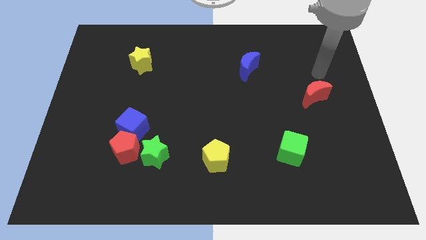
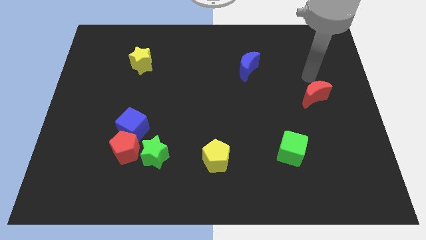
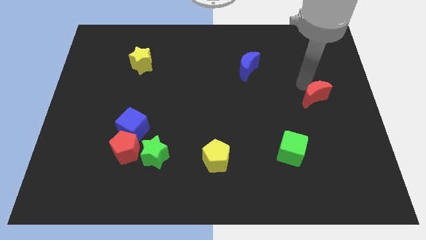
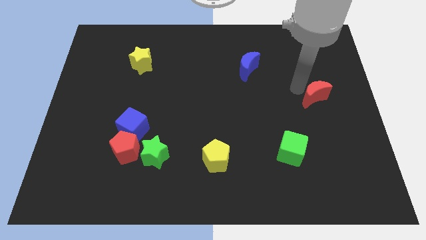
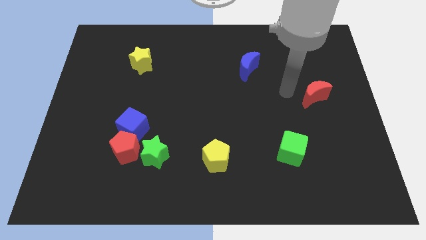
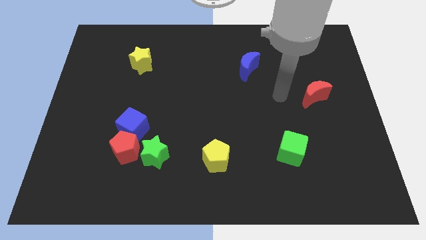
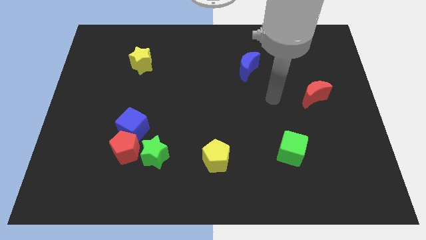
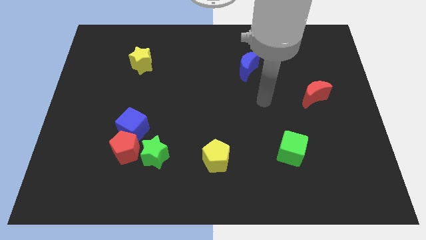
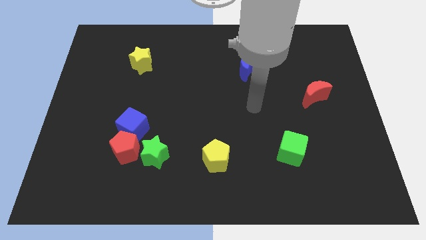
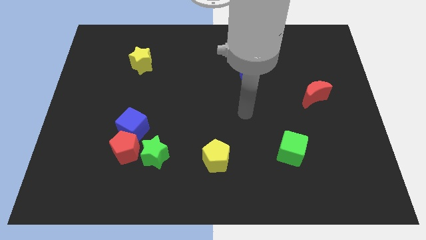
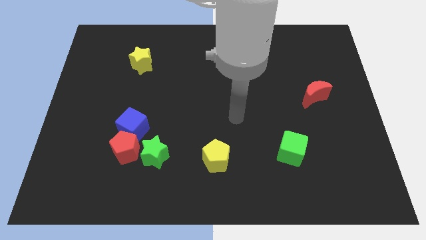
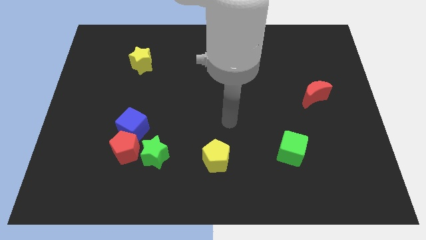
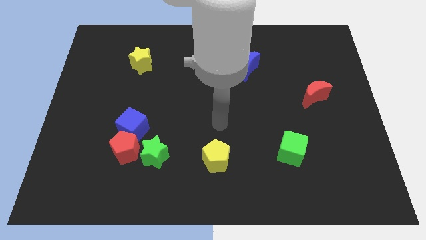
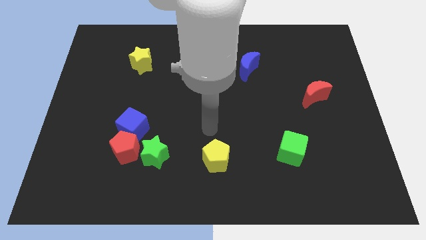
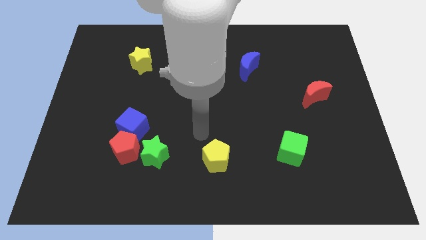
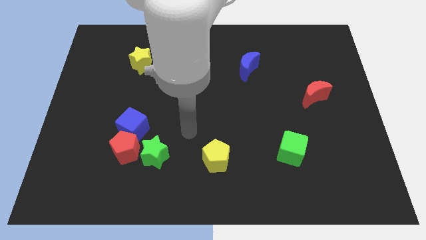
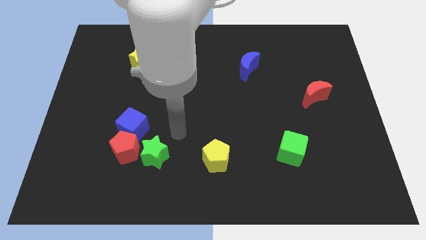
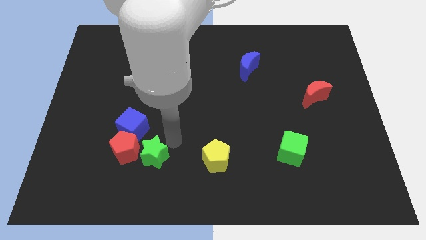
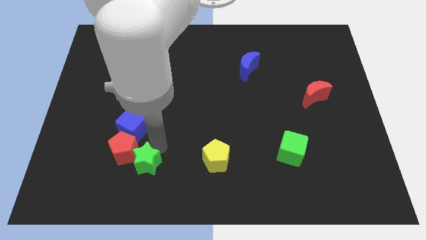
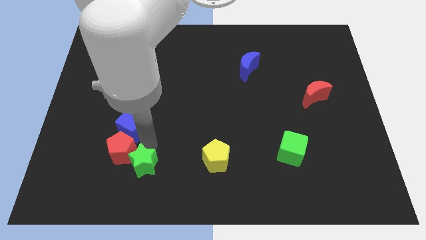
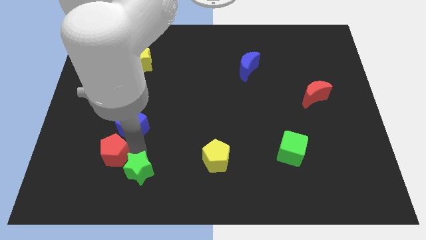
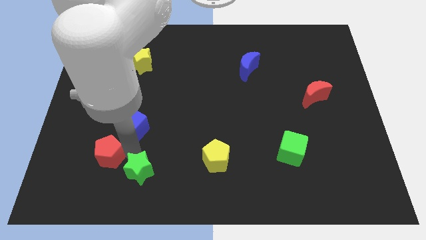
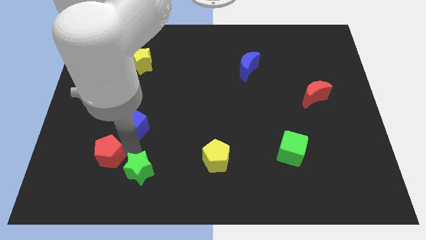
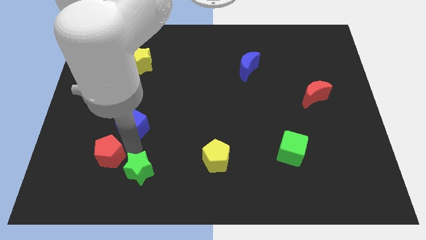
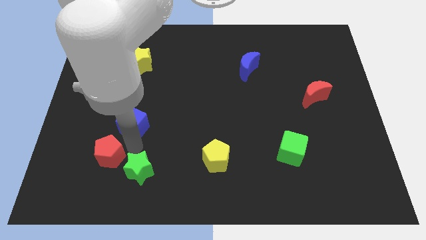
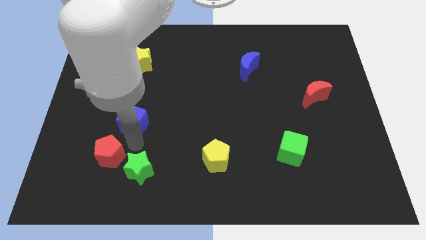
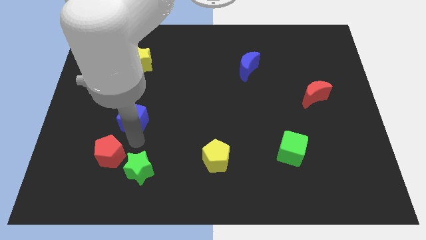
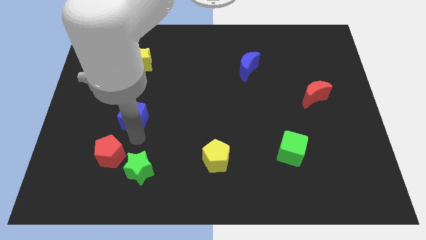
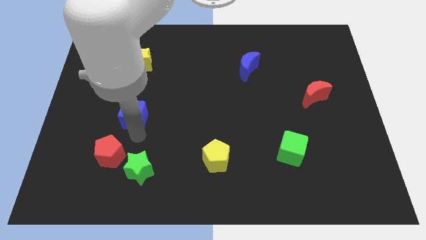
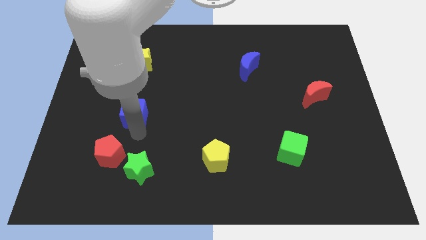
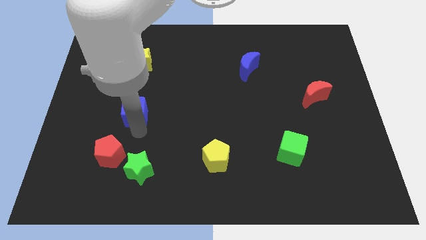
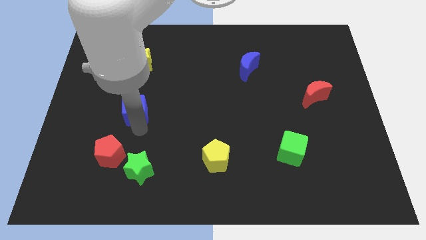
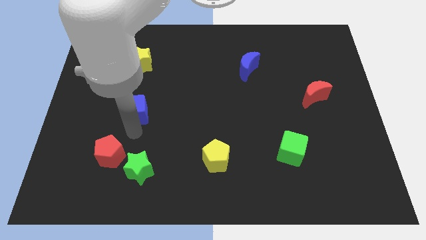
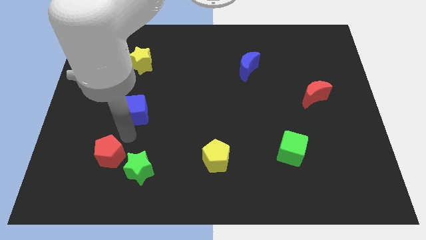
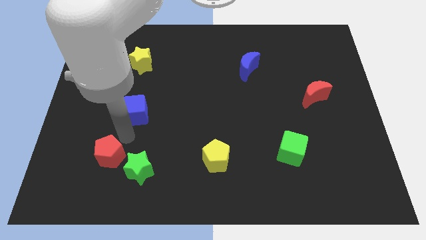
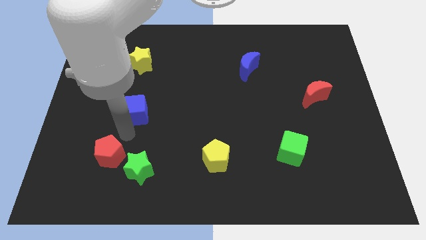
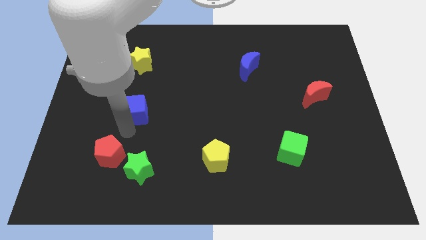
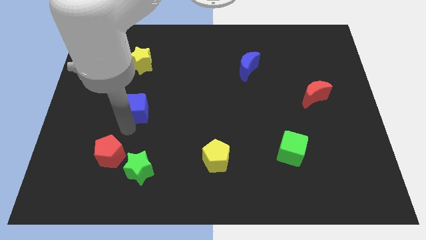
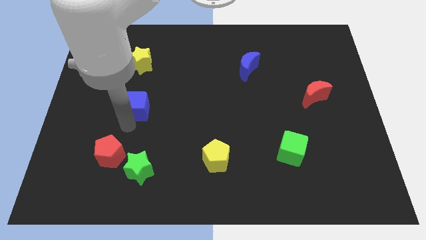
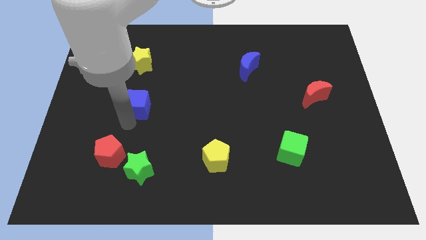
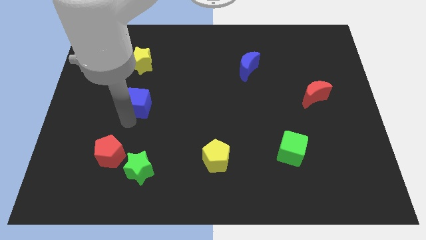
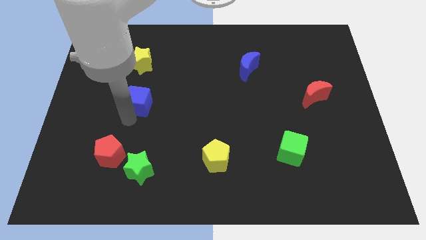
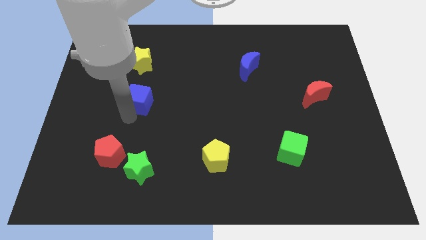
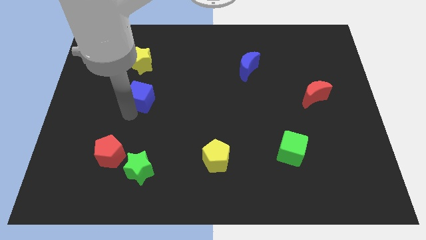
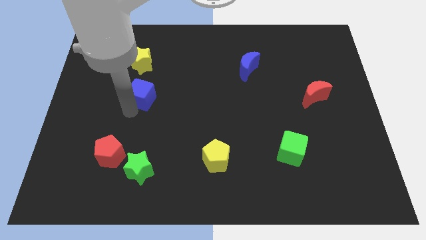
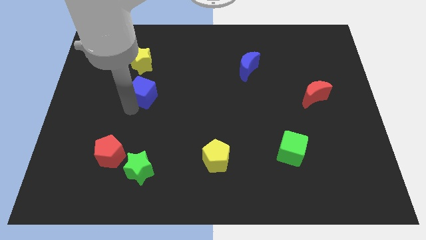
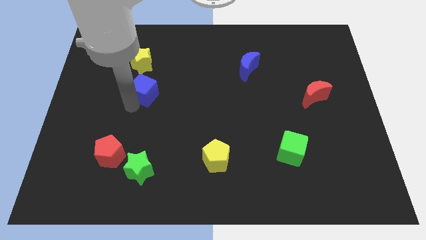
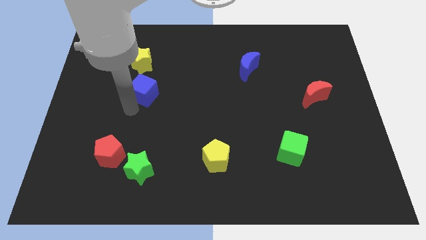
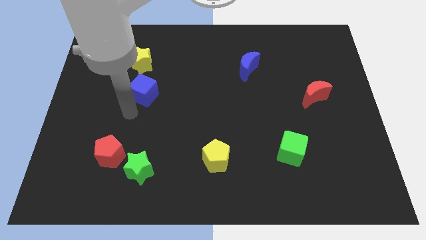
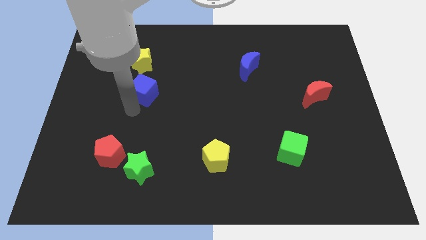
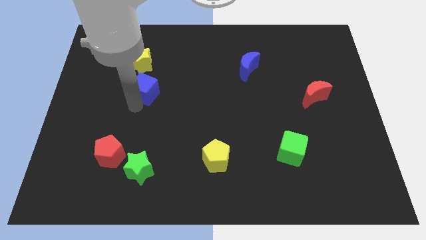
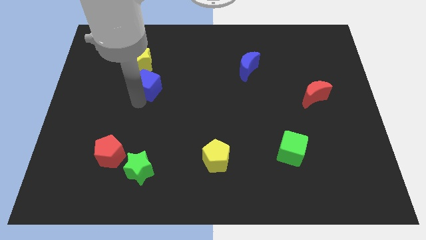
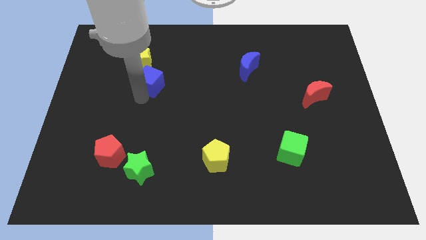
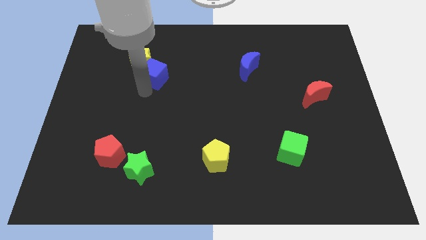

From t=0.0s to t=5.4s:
put the blue cube just right of the yellow star

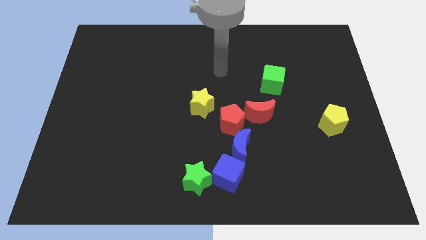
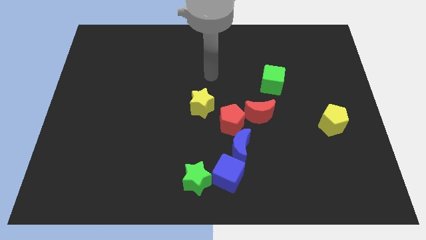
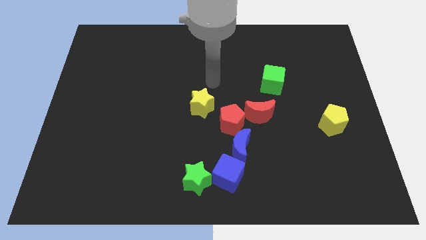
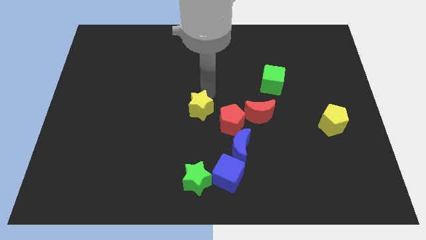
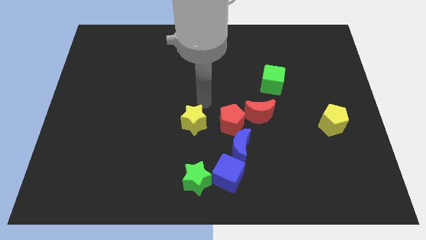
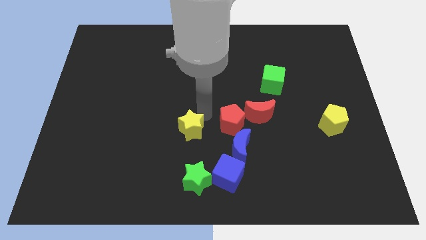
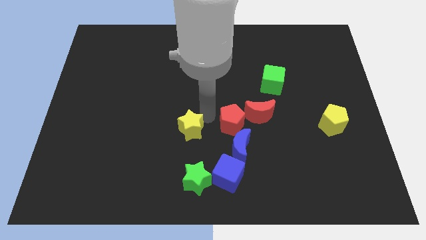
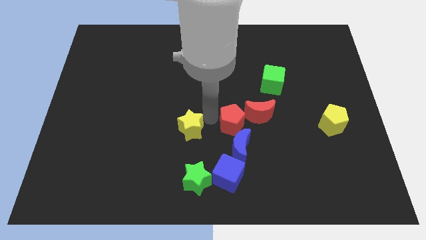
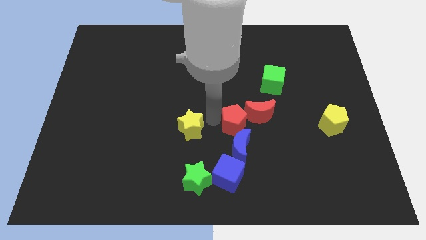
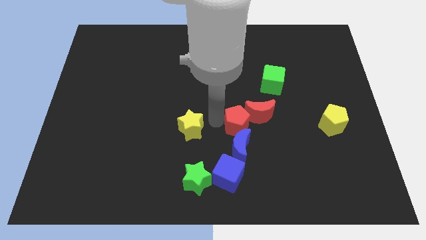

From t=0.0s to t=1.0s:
put the red pentagon diagonally up and to the right of the blue moon
